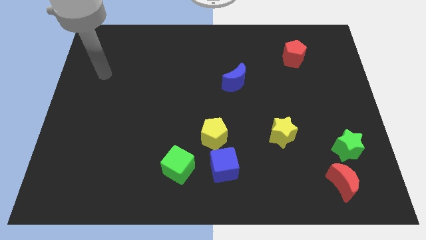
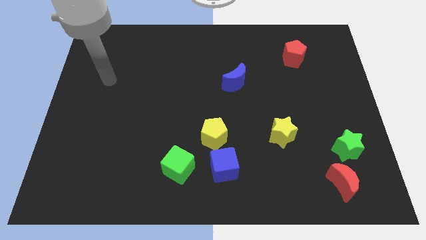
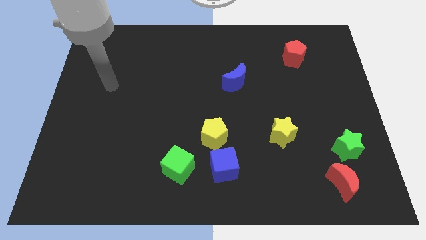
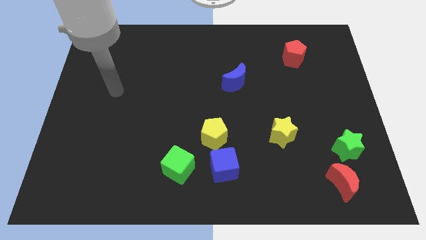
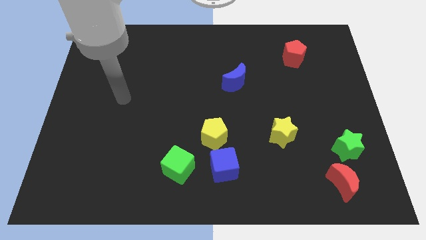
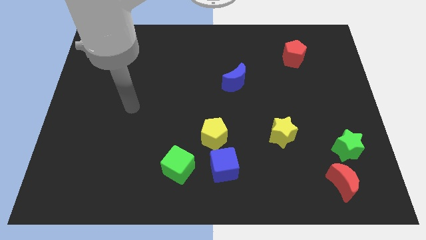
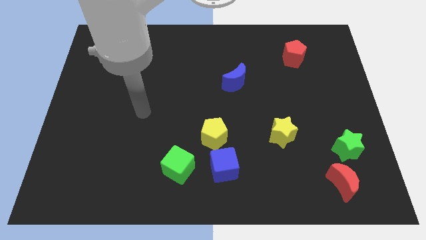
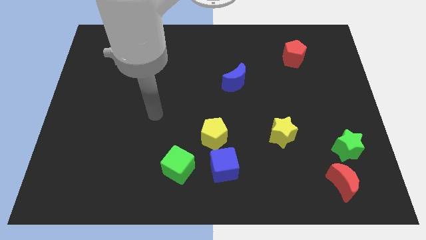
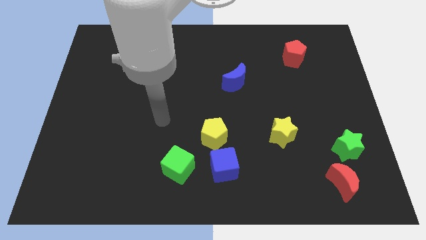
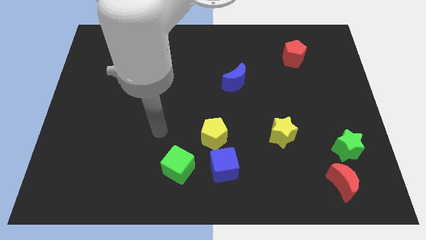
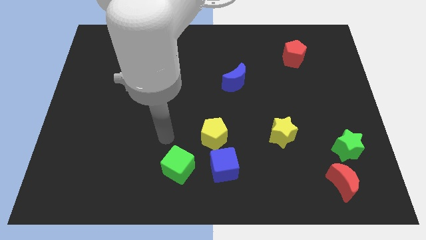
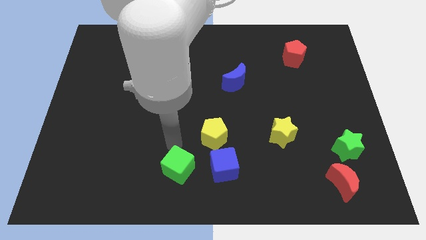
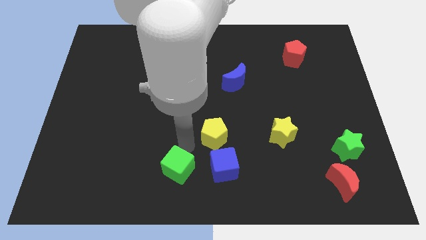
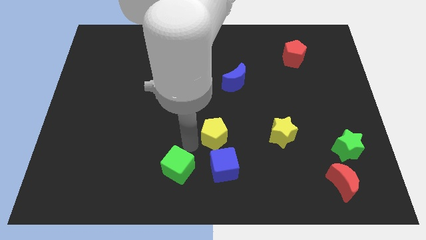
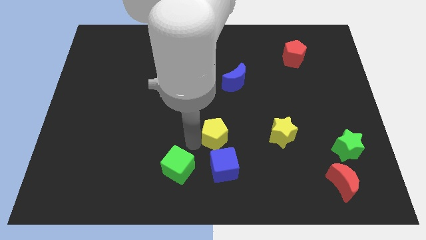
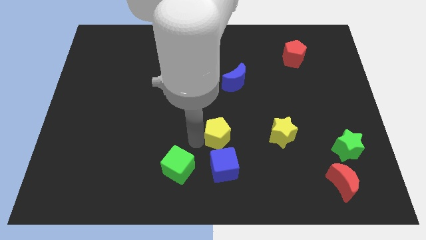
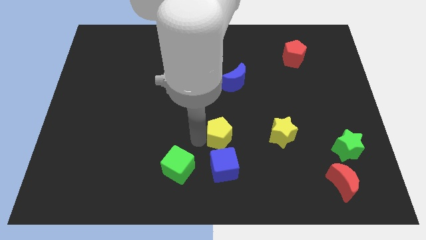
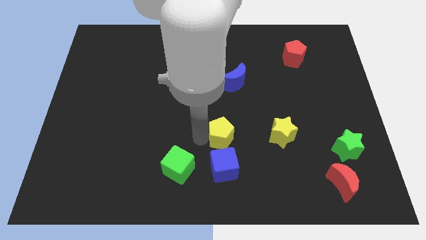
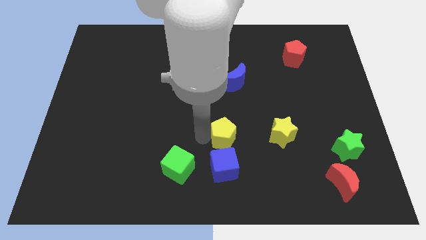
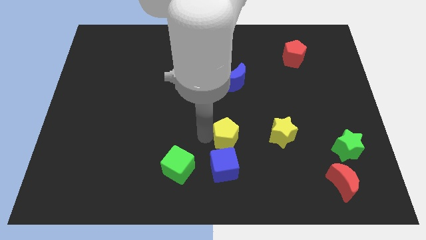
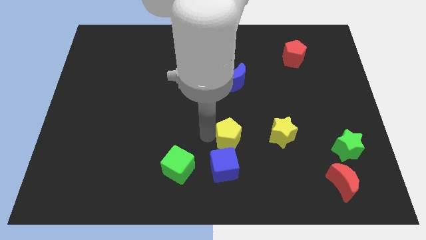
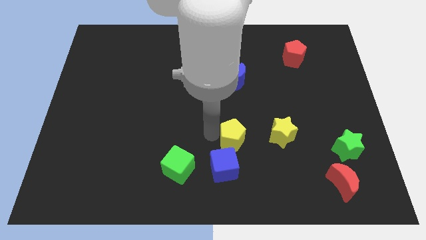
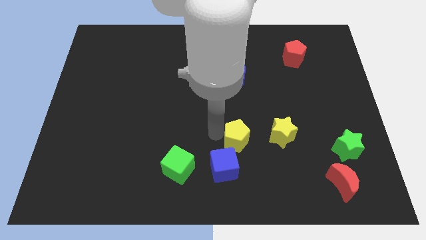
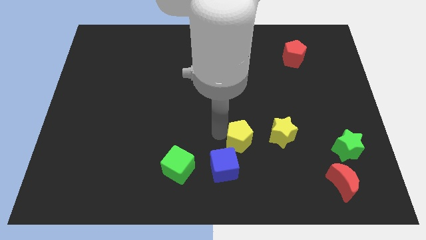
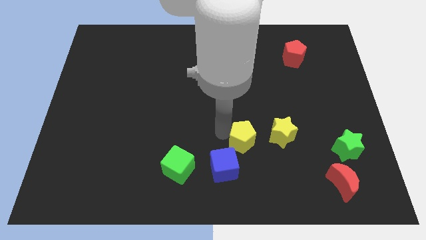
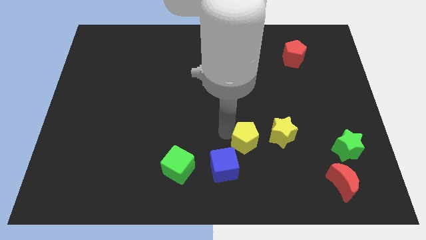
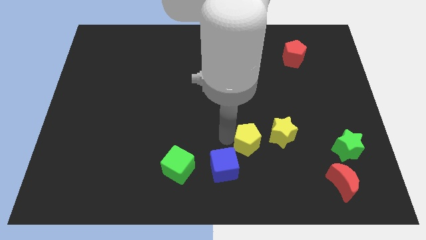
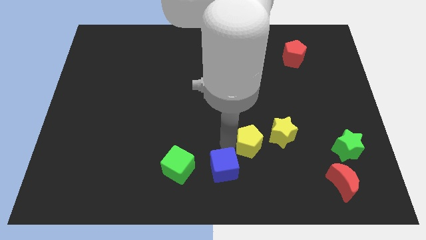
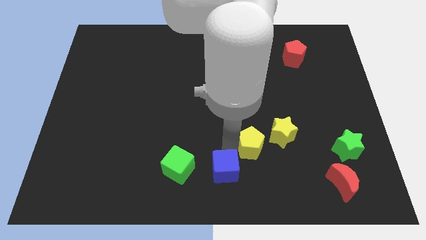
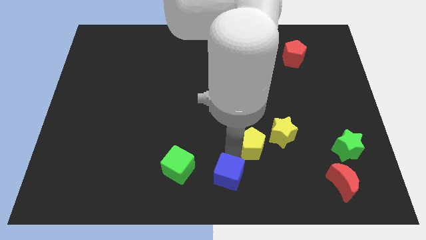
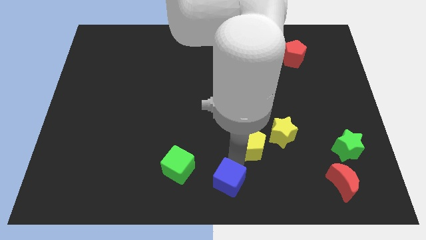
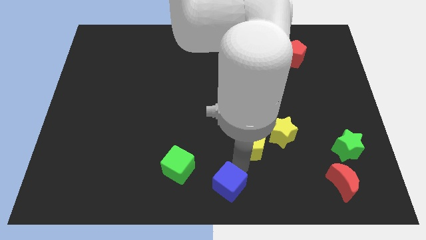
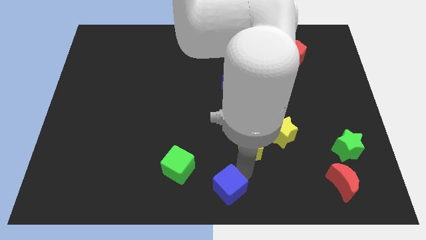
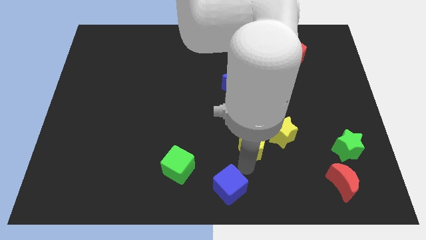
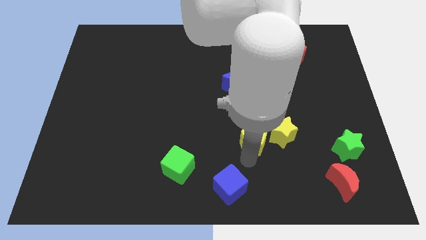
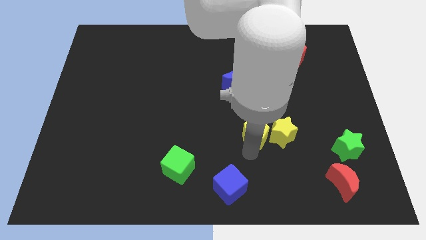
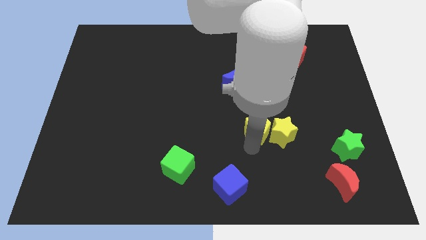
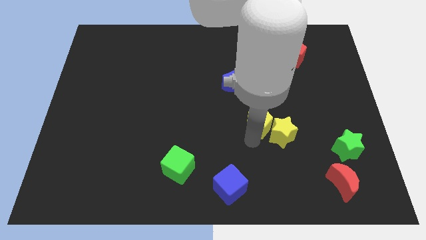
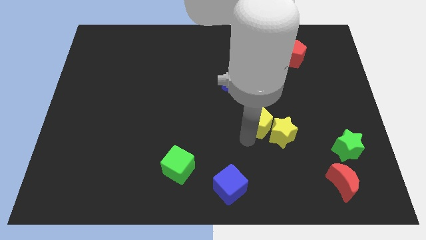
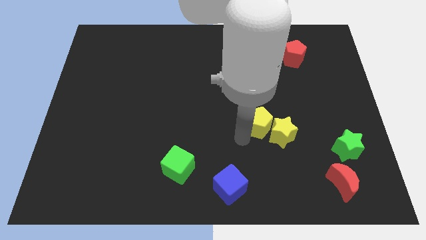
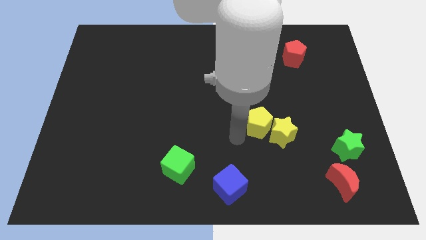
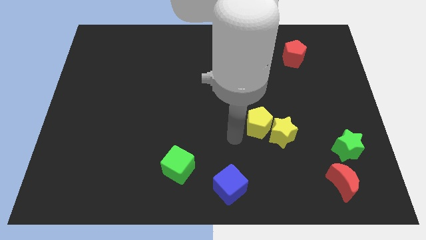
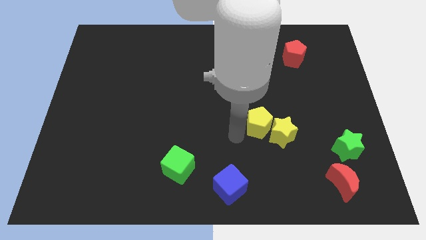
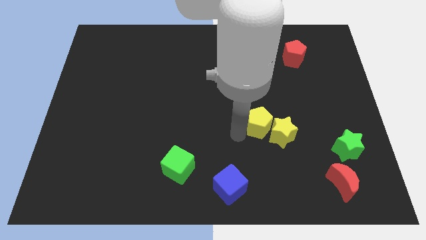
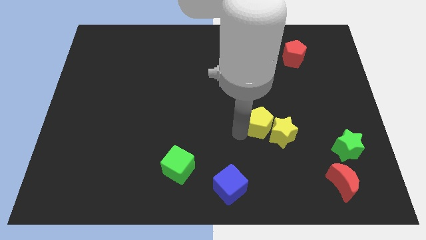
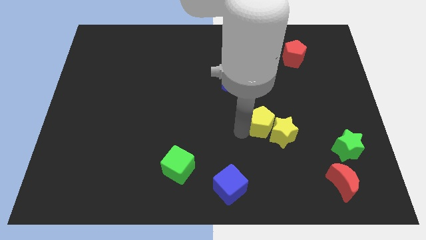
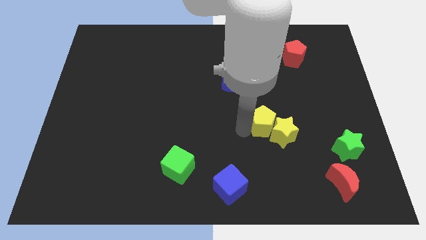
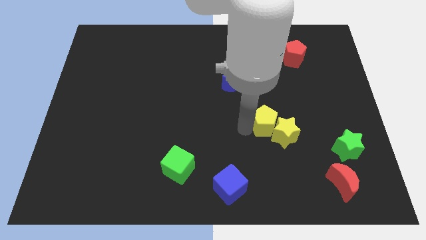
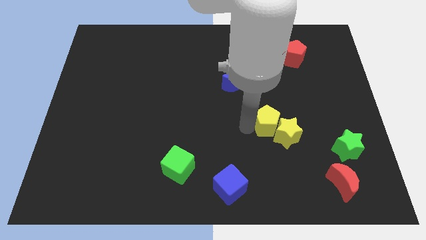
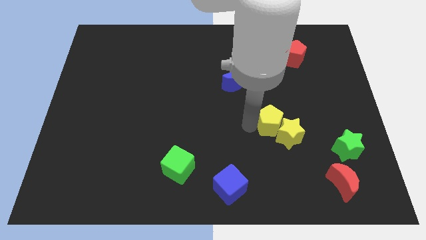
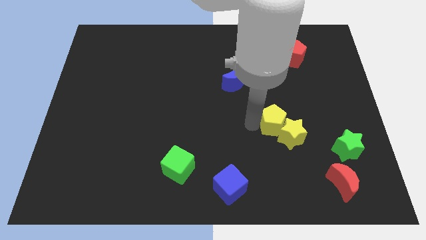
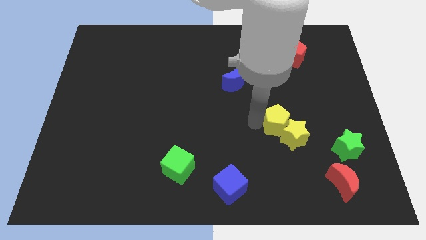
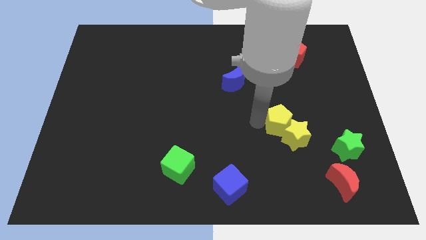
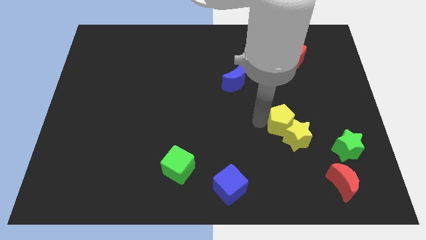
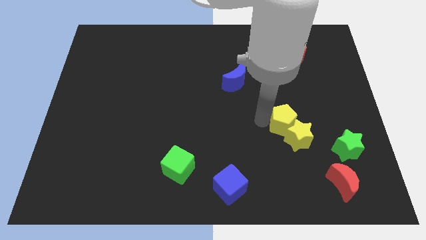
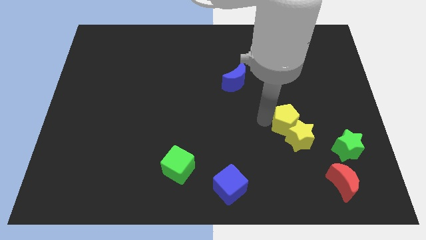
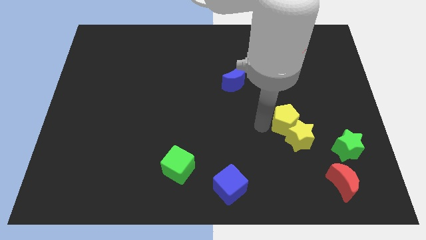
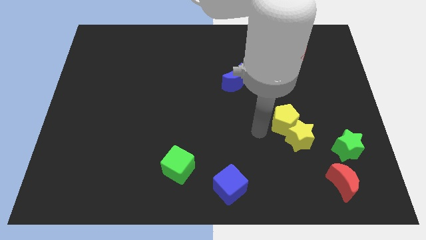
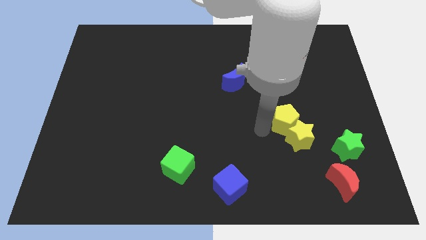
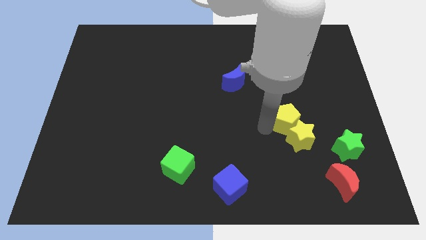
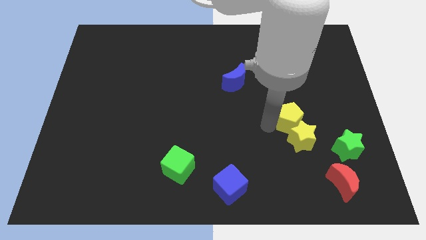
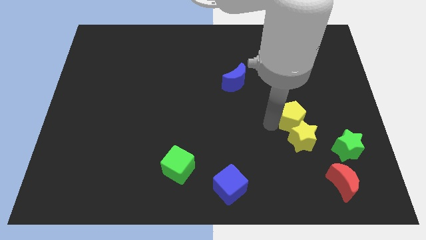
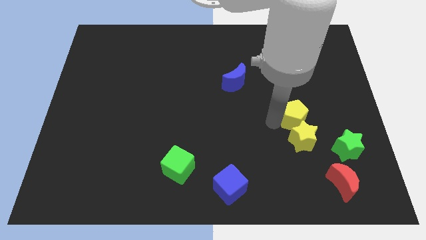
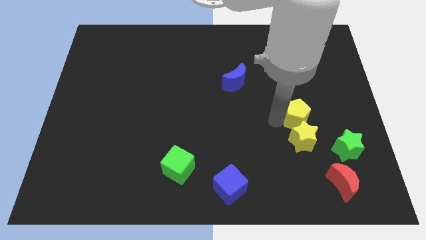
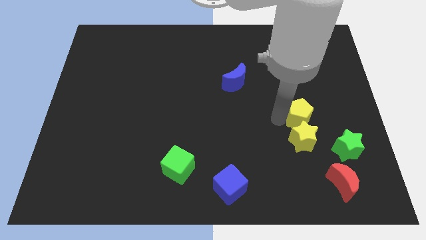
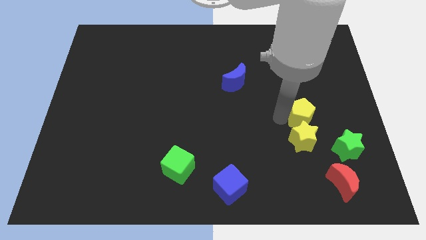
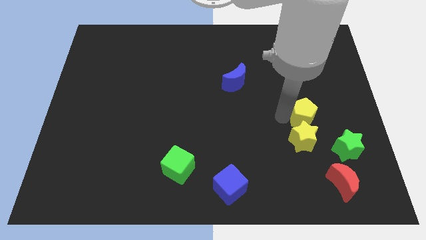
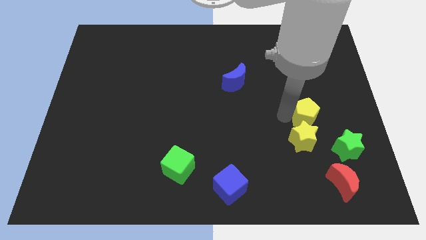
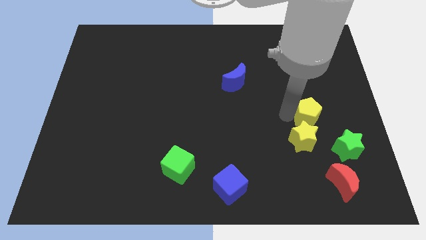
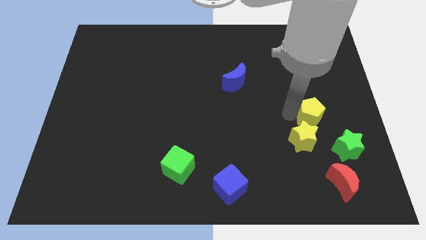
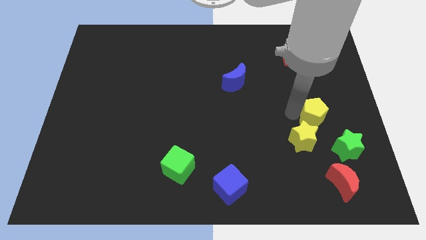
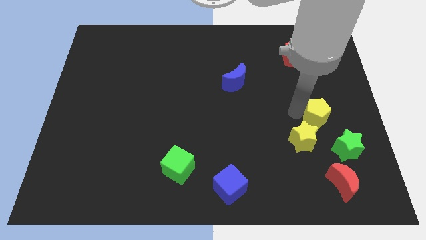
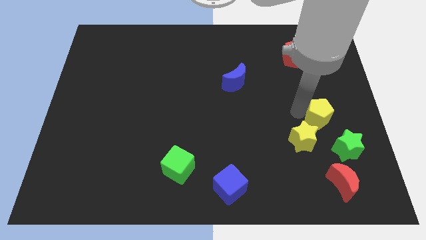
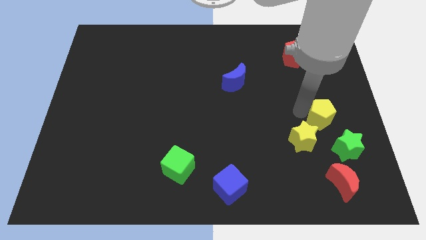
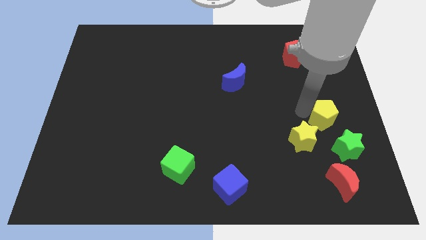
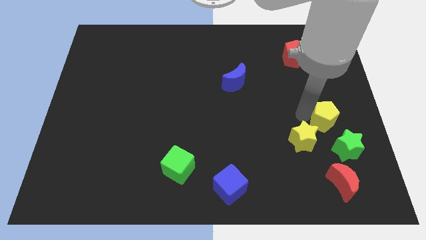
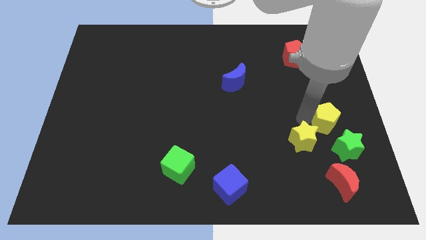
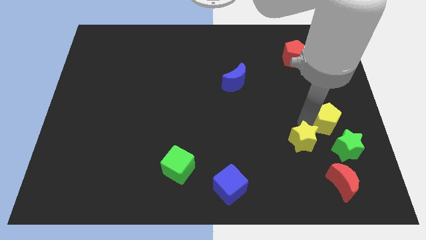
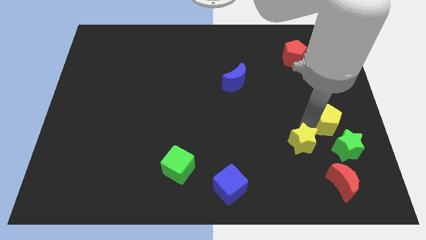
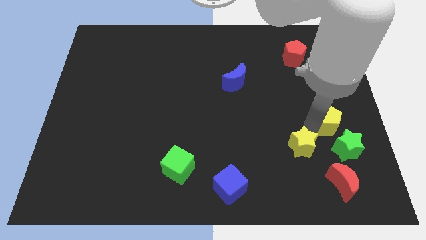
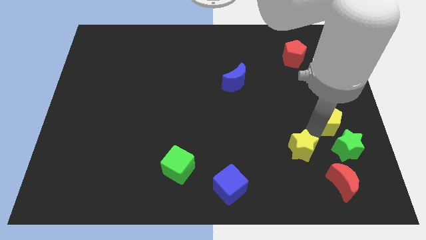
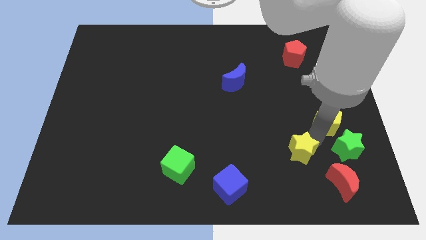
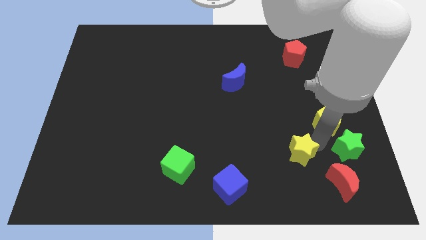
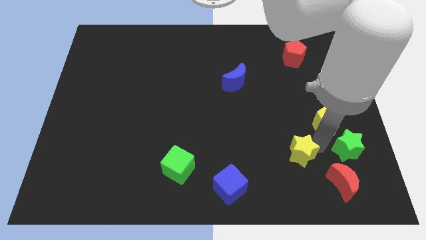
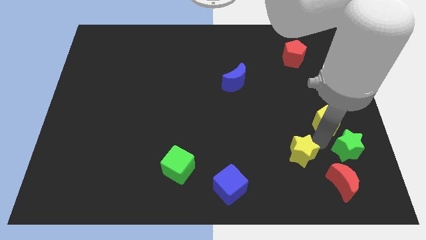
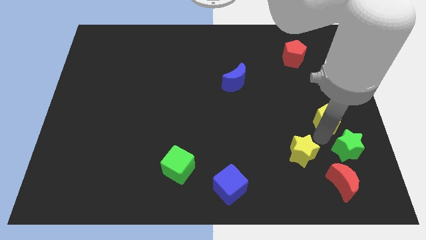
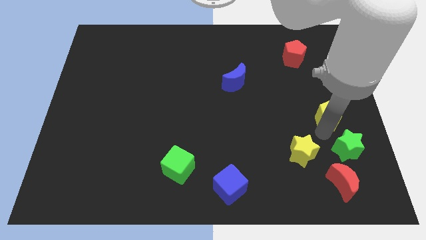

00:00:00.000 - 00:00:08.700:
slide the yellow pentagon to the right side
